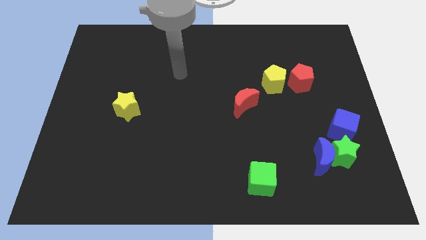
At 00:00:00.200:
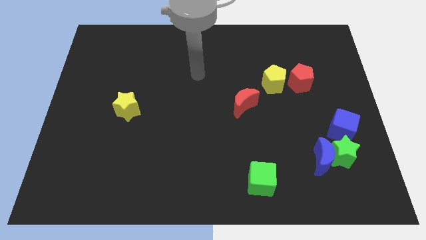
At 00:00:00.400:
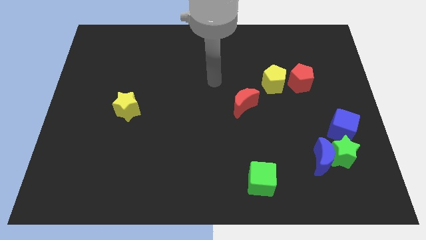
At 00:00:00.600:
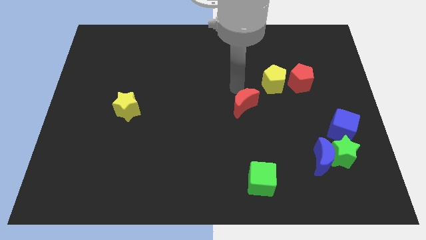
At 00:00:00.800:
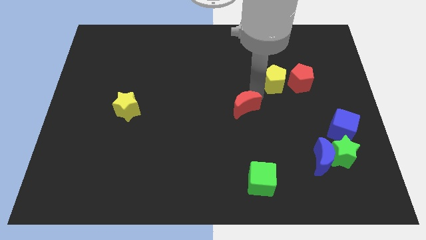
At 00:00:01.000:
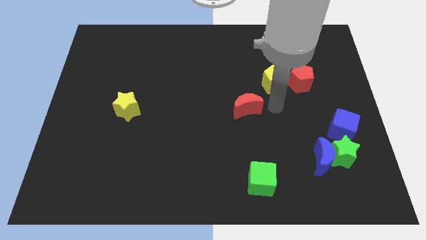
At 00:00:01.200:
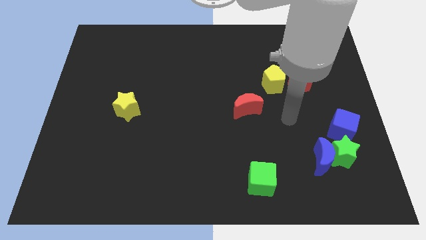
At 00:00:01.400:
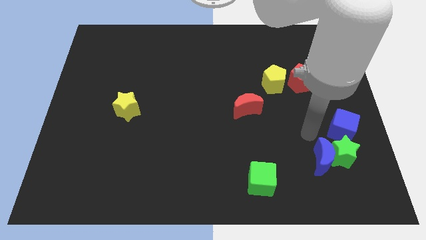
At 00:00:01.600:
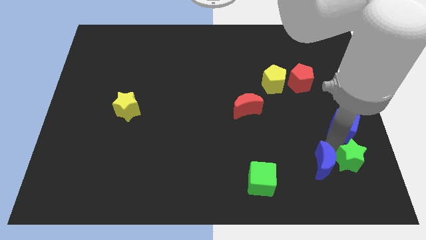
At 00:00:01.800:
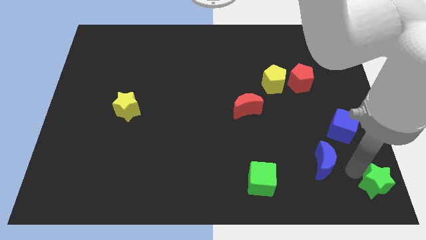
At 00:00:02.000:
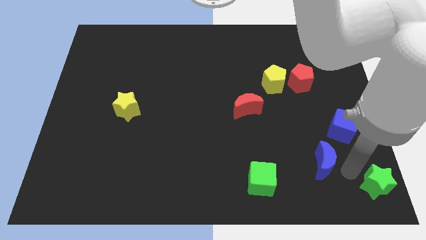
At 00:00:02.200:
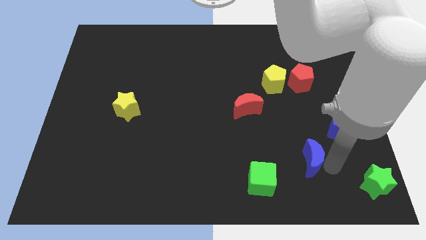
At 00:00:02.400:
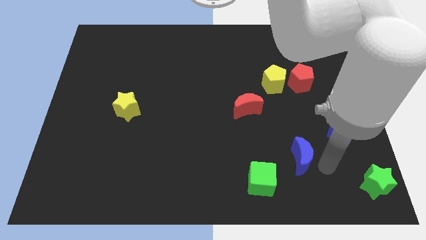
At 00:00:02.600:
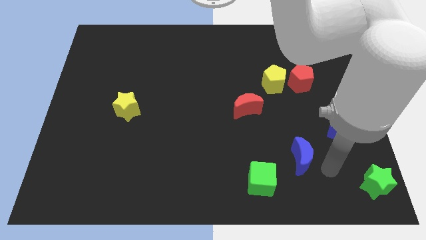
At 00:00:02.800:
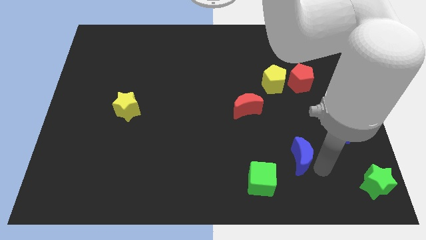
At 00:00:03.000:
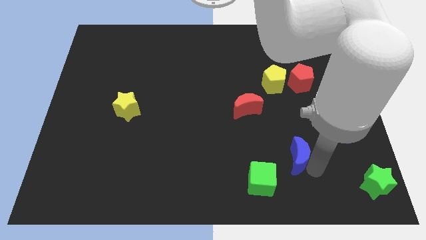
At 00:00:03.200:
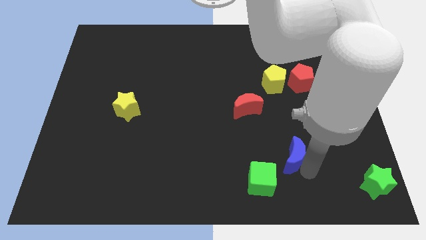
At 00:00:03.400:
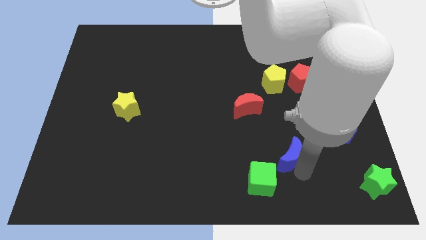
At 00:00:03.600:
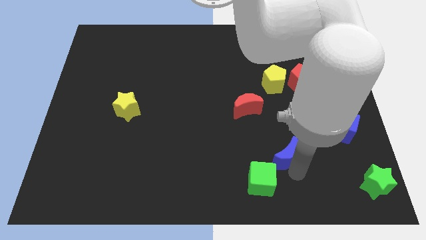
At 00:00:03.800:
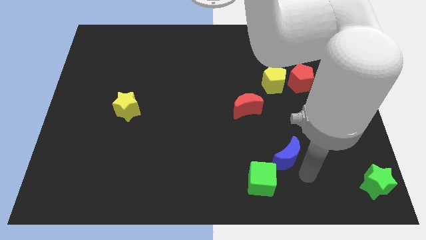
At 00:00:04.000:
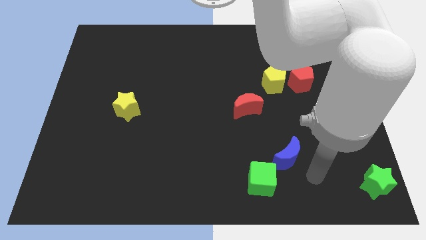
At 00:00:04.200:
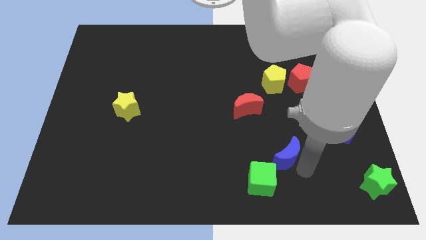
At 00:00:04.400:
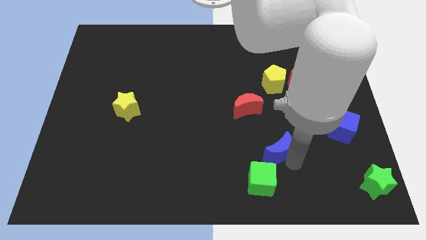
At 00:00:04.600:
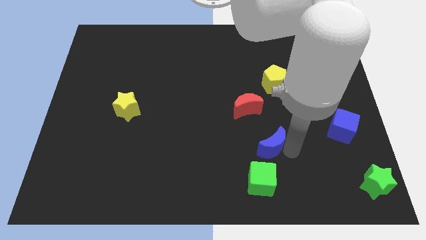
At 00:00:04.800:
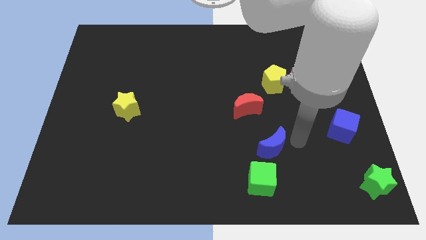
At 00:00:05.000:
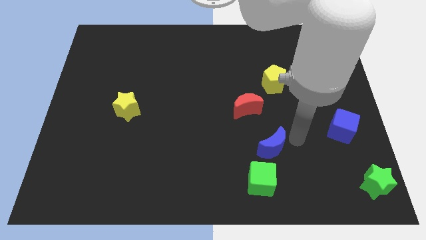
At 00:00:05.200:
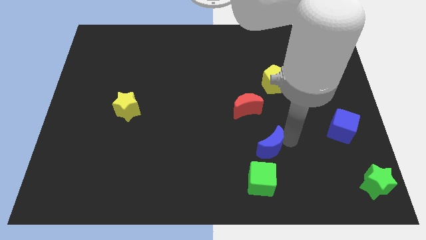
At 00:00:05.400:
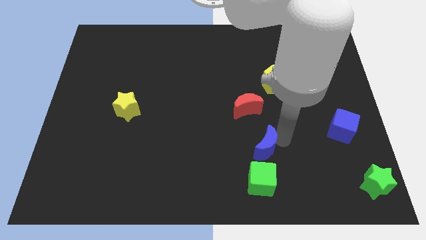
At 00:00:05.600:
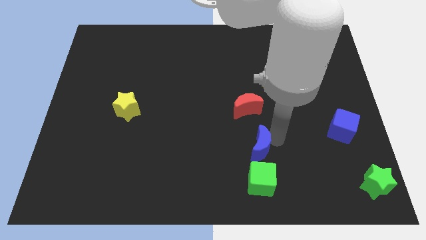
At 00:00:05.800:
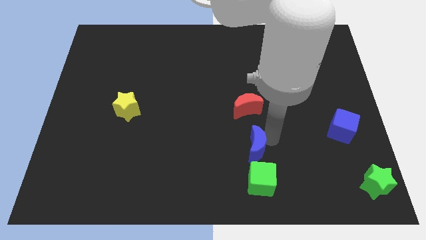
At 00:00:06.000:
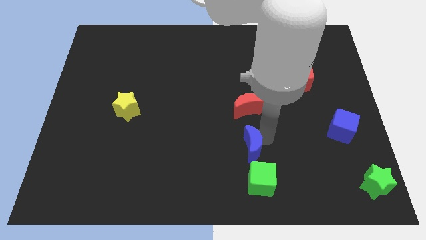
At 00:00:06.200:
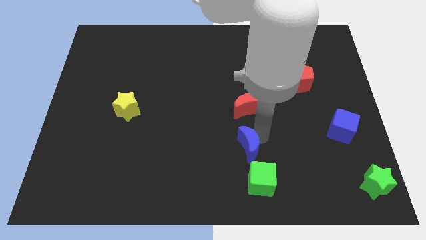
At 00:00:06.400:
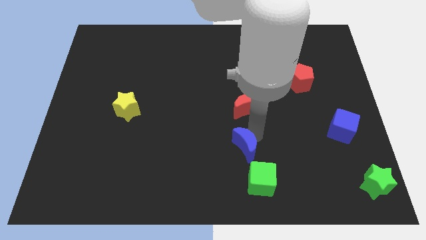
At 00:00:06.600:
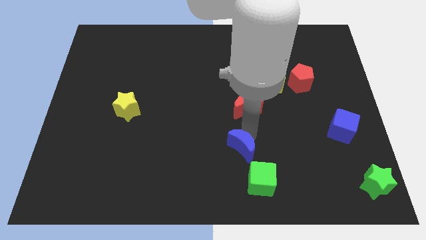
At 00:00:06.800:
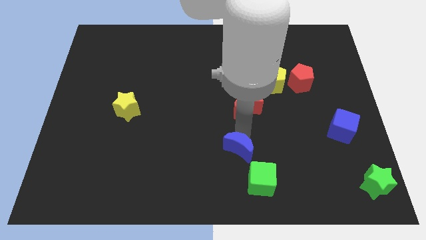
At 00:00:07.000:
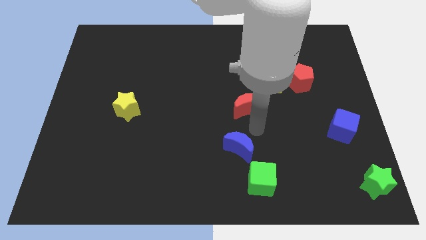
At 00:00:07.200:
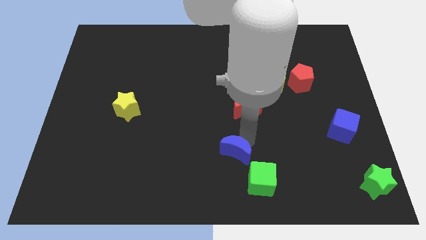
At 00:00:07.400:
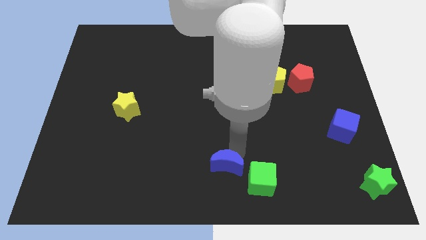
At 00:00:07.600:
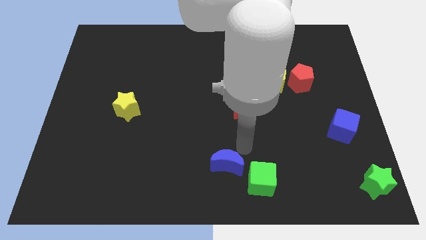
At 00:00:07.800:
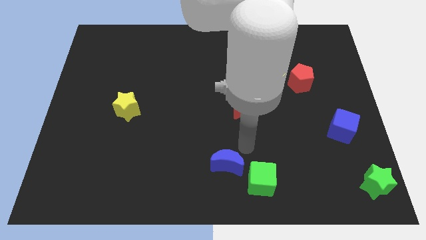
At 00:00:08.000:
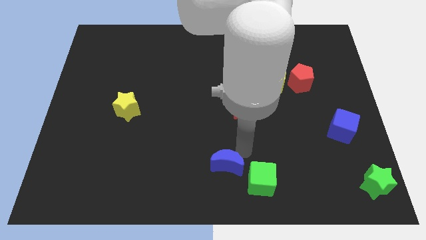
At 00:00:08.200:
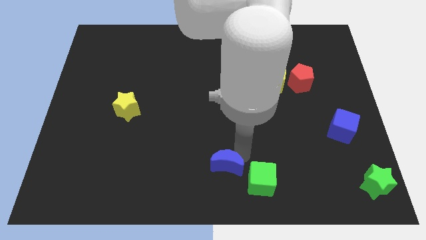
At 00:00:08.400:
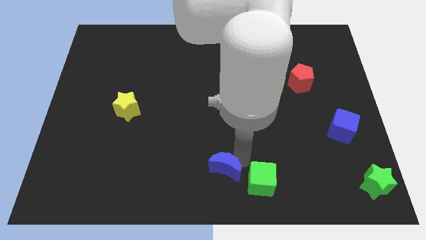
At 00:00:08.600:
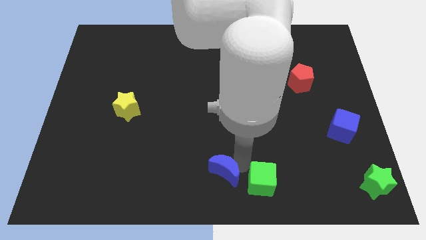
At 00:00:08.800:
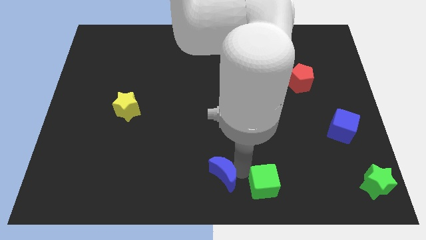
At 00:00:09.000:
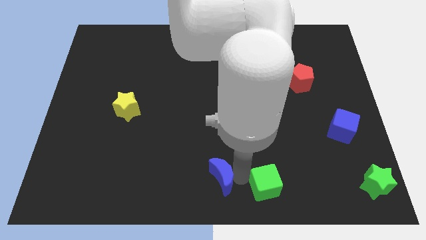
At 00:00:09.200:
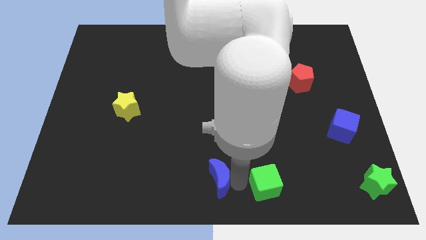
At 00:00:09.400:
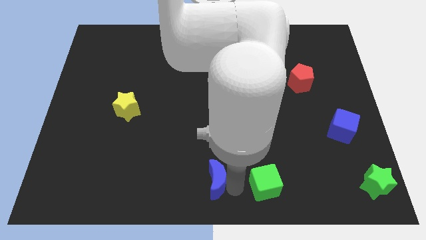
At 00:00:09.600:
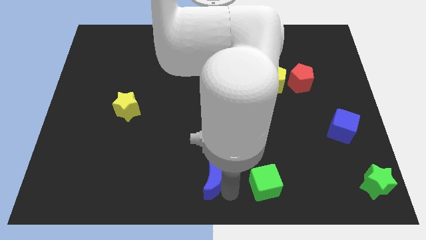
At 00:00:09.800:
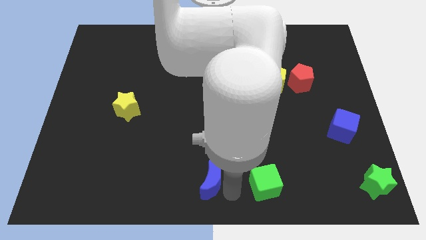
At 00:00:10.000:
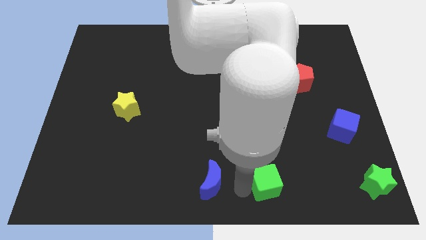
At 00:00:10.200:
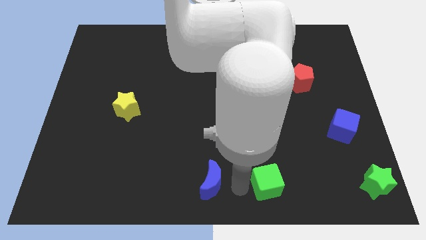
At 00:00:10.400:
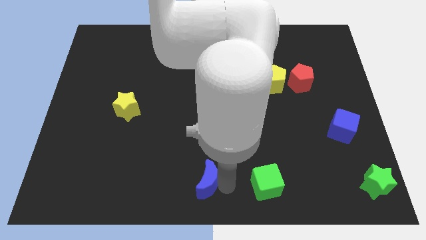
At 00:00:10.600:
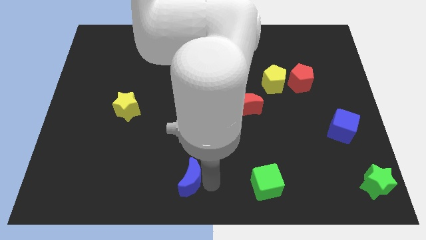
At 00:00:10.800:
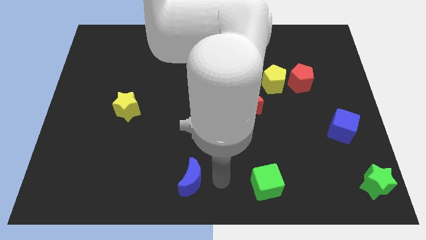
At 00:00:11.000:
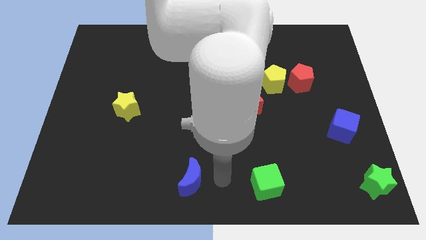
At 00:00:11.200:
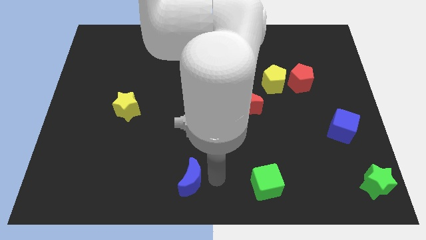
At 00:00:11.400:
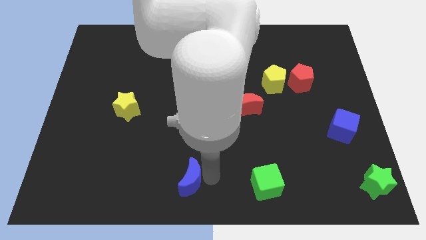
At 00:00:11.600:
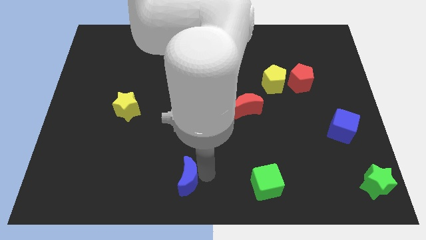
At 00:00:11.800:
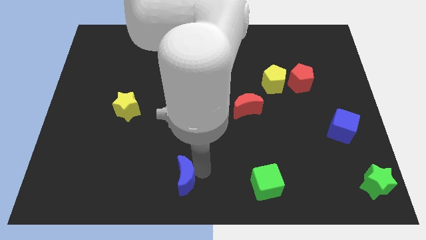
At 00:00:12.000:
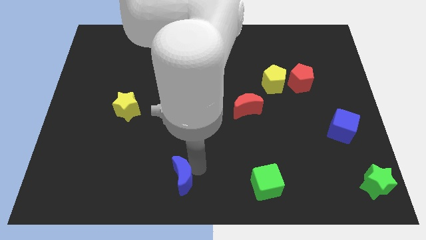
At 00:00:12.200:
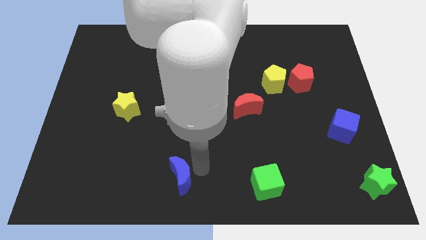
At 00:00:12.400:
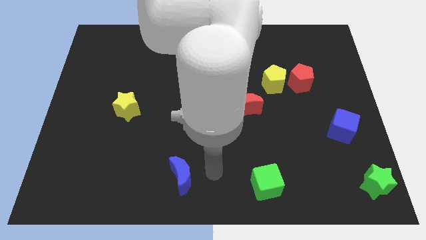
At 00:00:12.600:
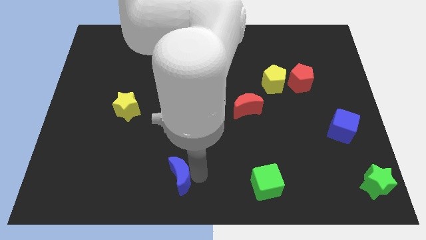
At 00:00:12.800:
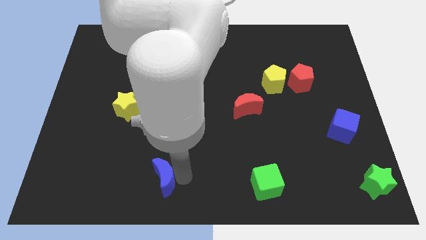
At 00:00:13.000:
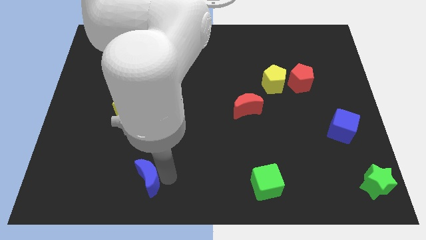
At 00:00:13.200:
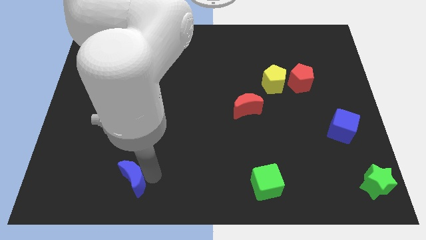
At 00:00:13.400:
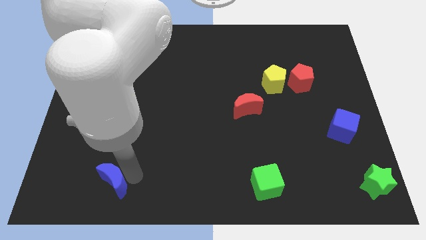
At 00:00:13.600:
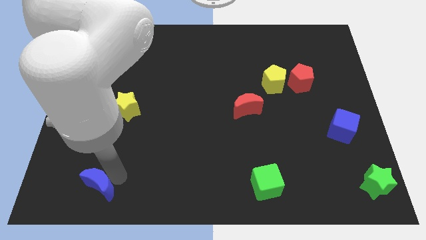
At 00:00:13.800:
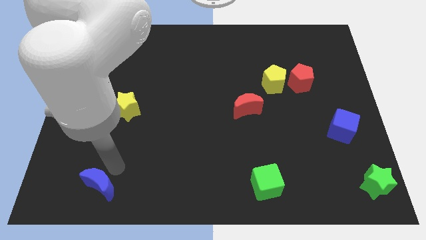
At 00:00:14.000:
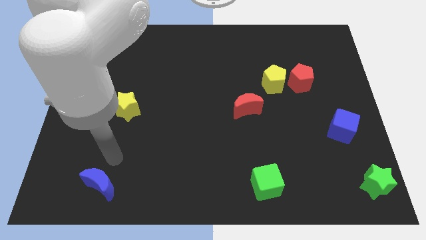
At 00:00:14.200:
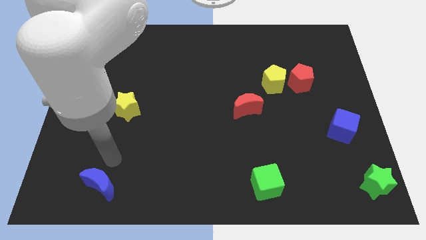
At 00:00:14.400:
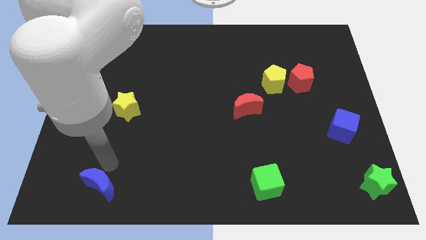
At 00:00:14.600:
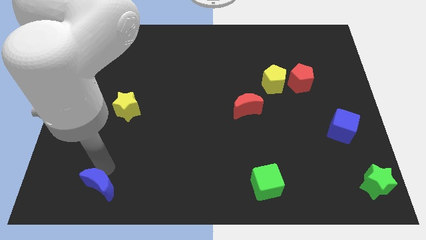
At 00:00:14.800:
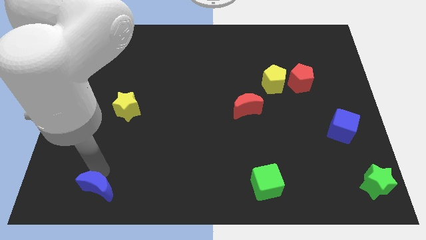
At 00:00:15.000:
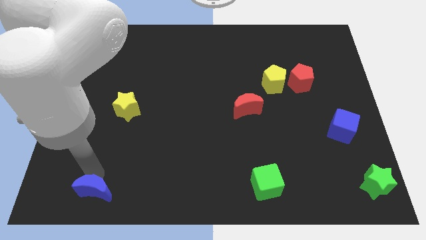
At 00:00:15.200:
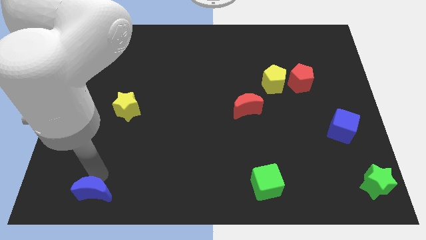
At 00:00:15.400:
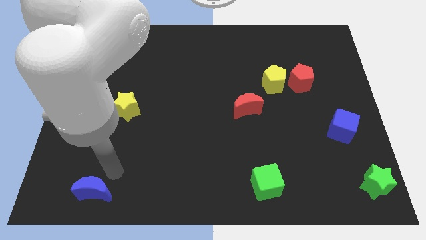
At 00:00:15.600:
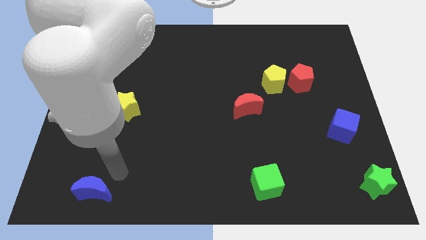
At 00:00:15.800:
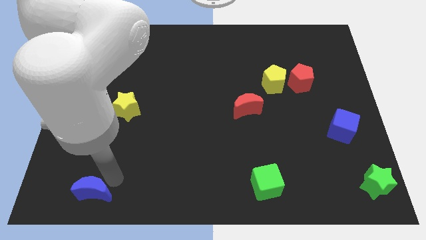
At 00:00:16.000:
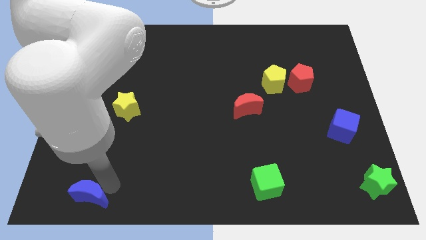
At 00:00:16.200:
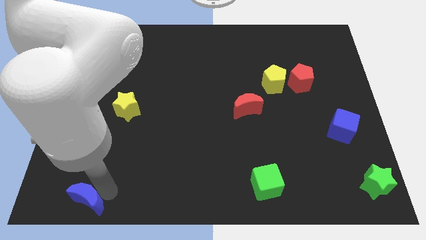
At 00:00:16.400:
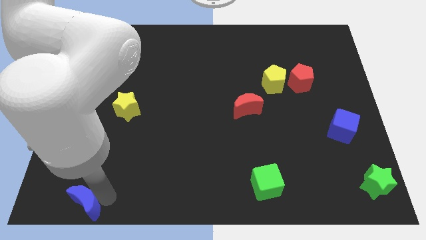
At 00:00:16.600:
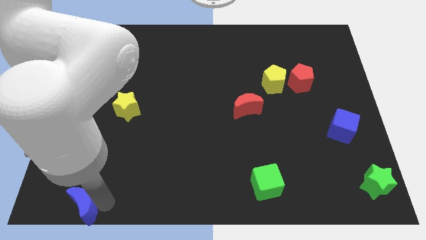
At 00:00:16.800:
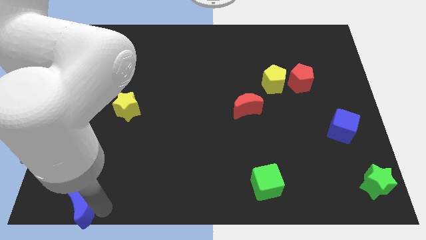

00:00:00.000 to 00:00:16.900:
slide the blue moon to the bottom left
